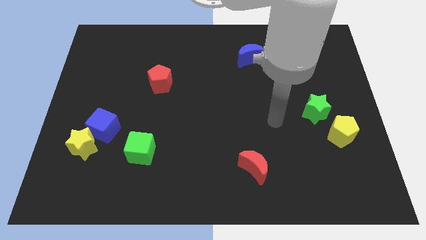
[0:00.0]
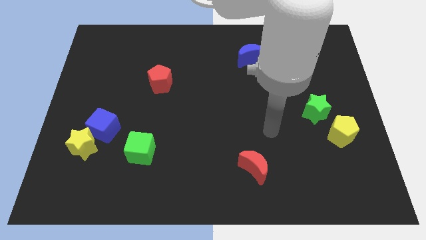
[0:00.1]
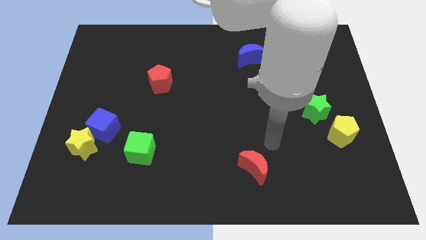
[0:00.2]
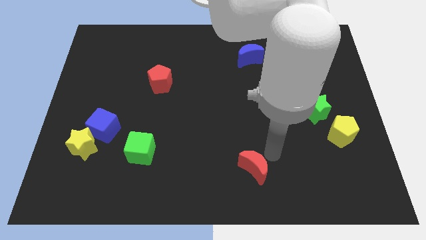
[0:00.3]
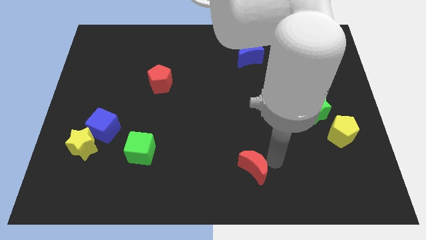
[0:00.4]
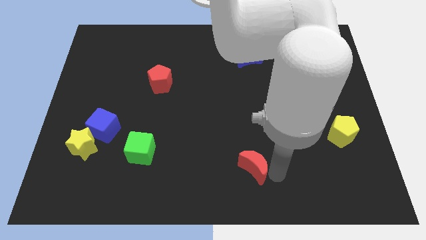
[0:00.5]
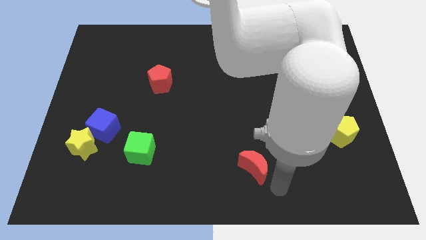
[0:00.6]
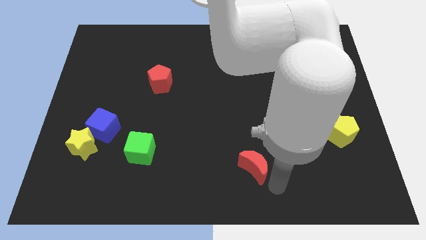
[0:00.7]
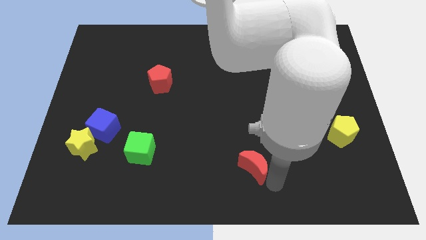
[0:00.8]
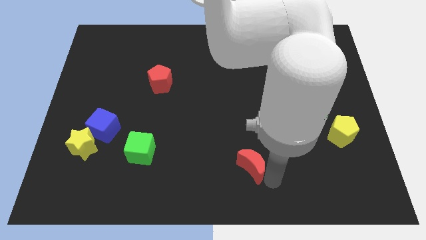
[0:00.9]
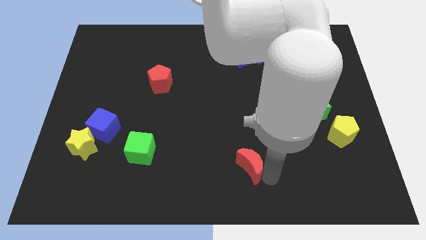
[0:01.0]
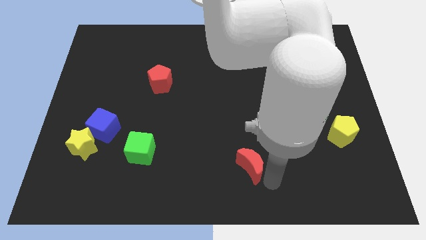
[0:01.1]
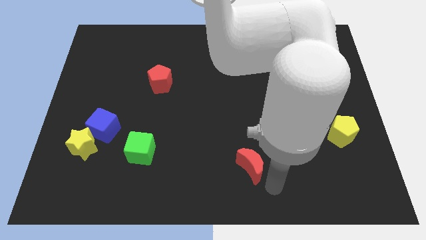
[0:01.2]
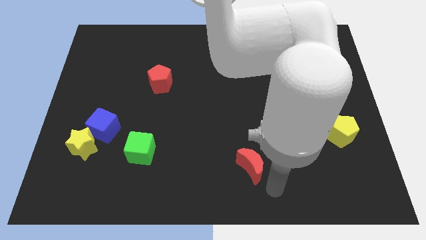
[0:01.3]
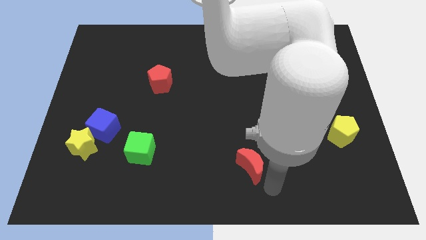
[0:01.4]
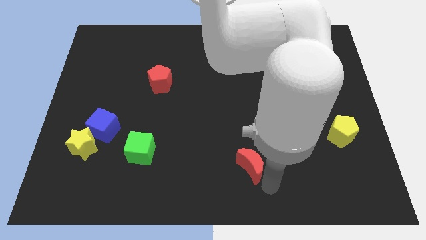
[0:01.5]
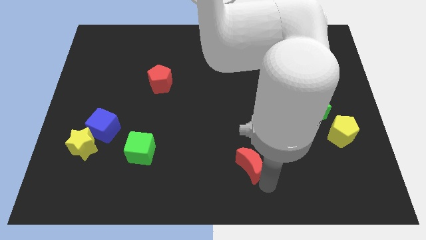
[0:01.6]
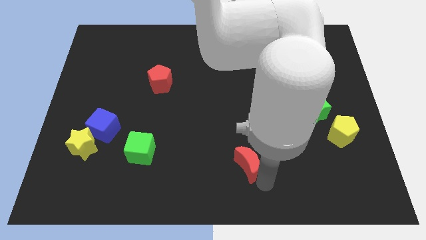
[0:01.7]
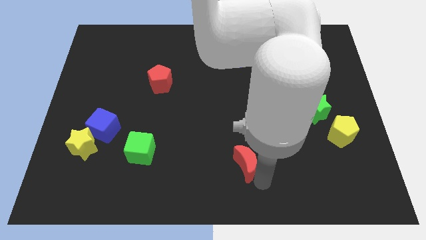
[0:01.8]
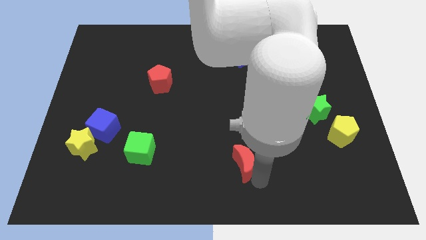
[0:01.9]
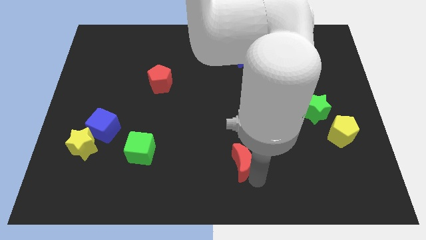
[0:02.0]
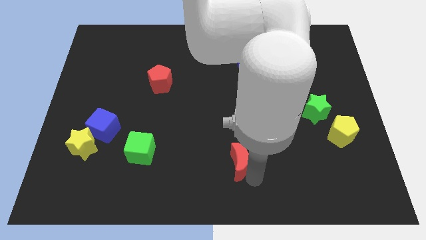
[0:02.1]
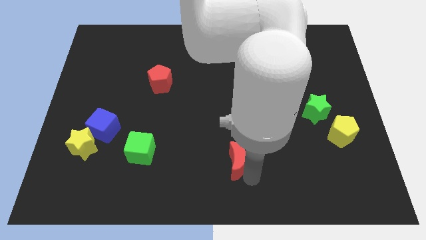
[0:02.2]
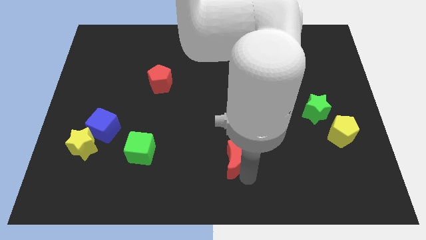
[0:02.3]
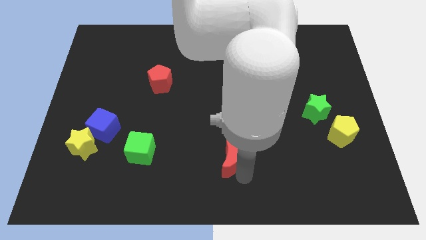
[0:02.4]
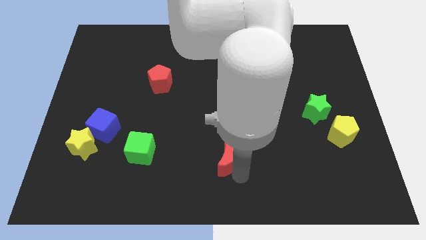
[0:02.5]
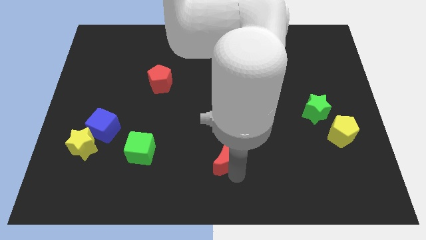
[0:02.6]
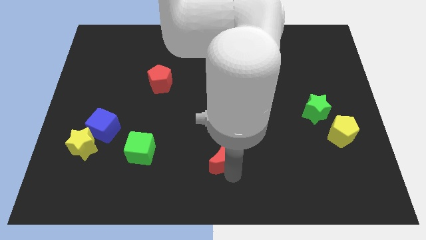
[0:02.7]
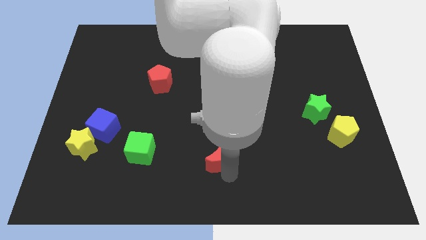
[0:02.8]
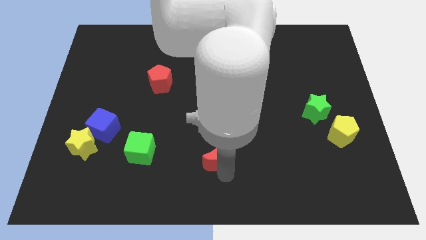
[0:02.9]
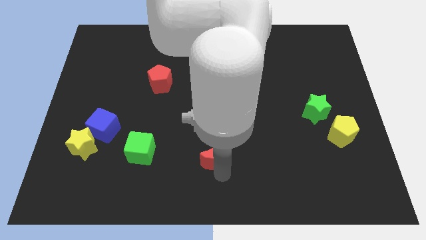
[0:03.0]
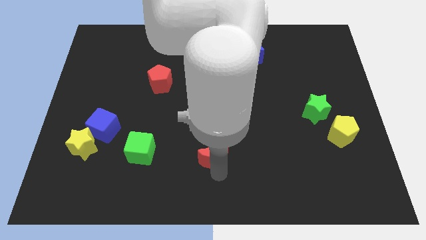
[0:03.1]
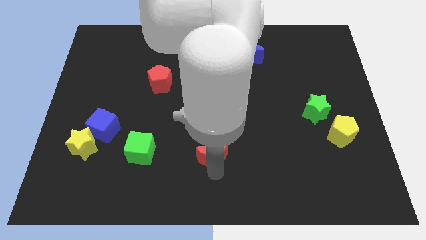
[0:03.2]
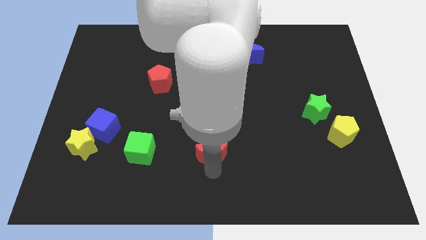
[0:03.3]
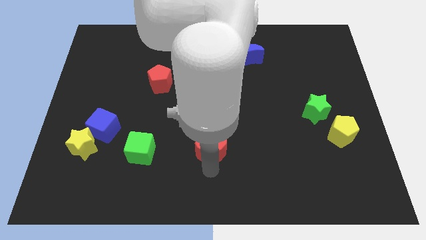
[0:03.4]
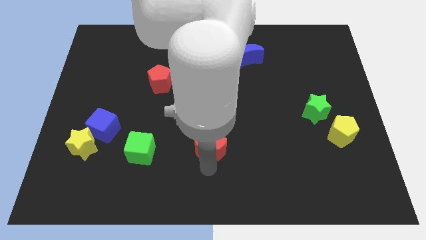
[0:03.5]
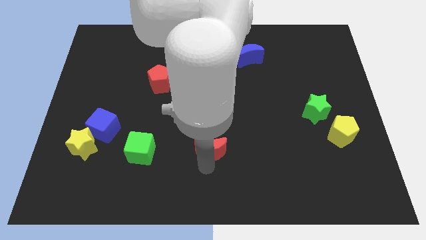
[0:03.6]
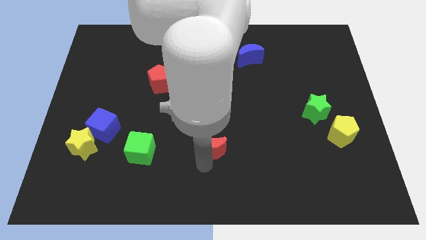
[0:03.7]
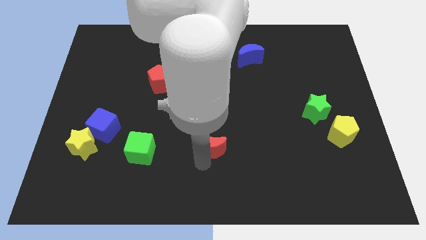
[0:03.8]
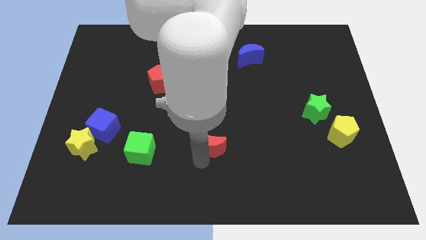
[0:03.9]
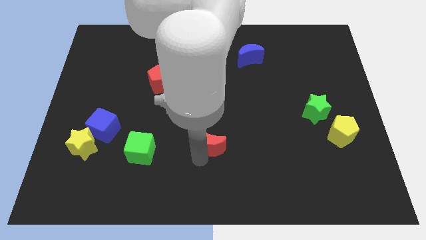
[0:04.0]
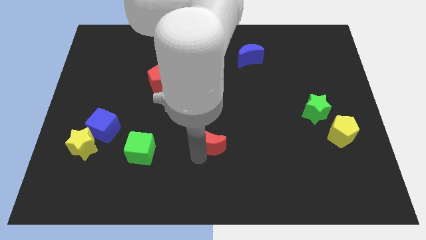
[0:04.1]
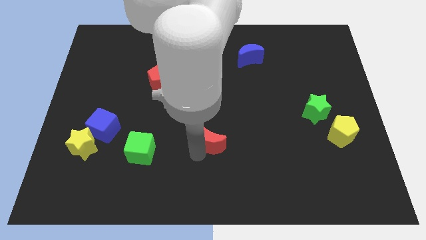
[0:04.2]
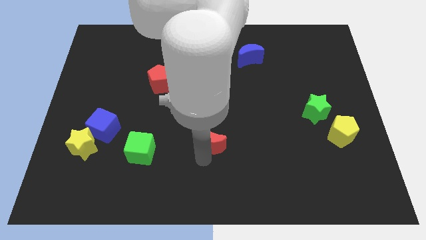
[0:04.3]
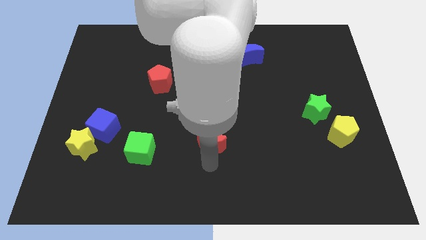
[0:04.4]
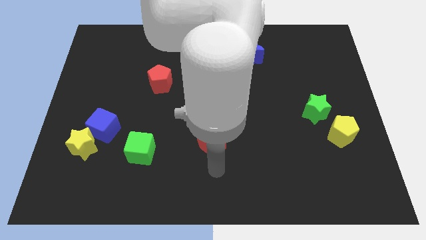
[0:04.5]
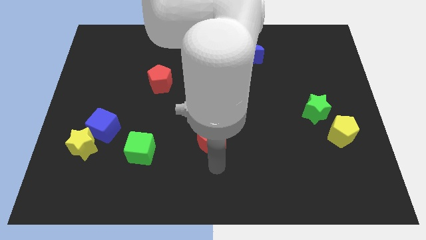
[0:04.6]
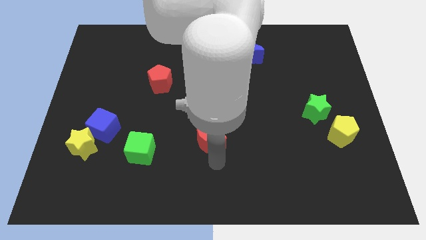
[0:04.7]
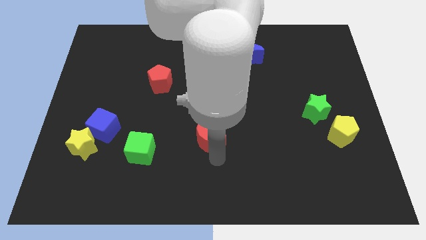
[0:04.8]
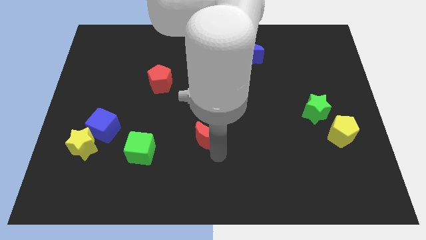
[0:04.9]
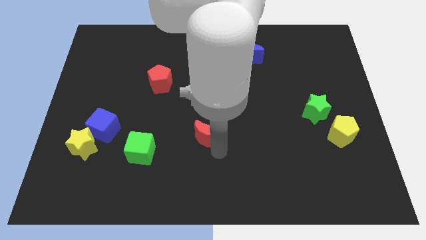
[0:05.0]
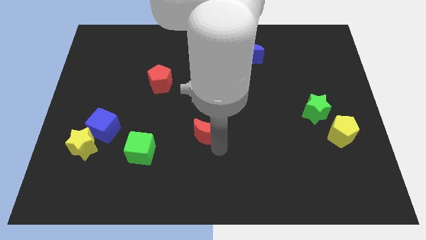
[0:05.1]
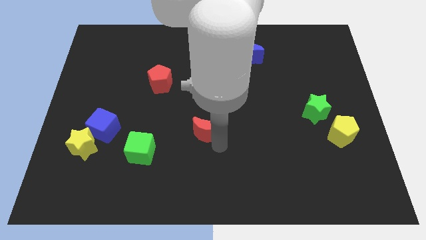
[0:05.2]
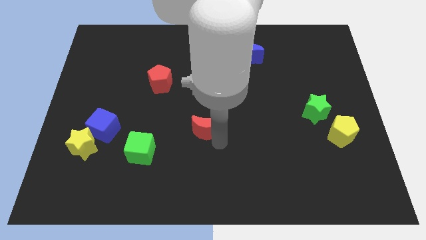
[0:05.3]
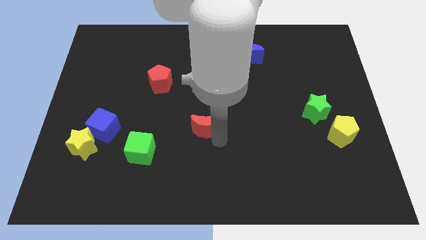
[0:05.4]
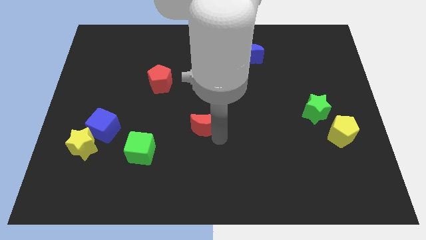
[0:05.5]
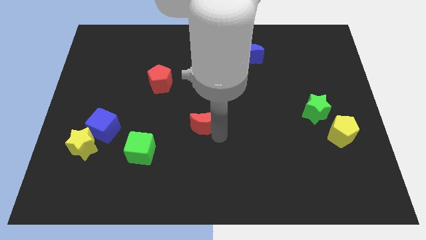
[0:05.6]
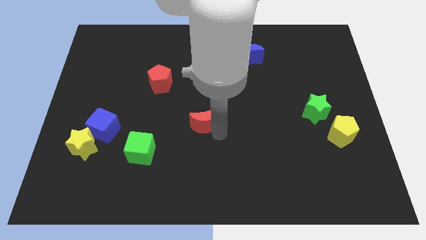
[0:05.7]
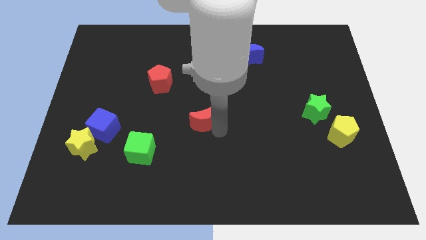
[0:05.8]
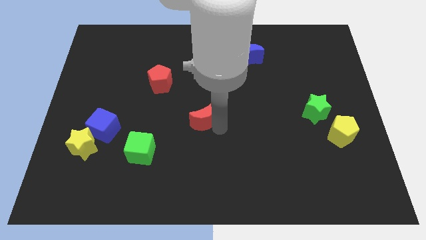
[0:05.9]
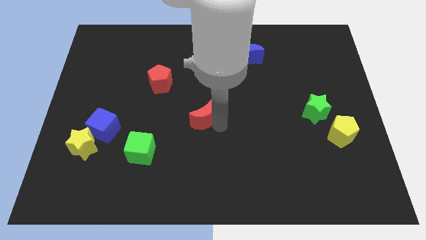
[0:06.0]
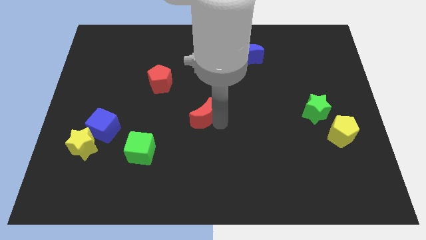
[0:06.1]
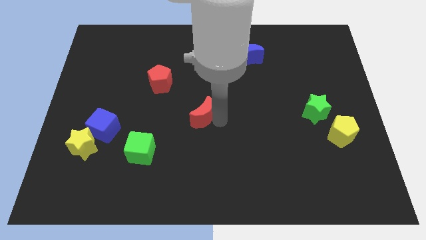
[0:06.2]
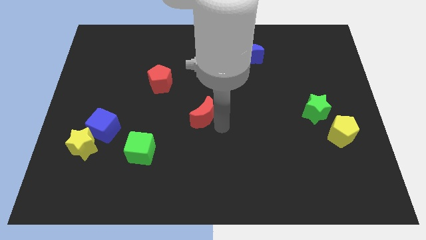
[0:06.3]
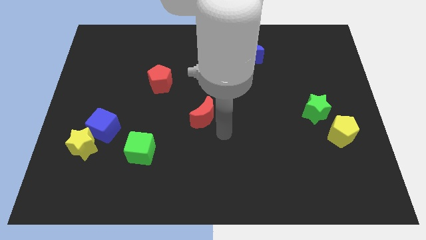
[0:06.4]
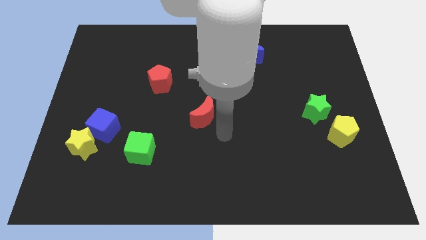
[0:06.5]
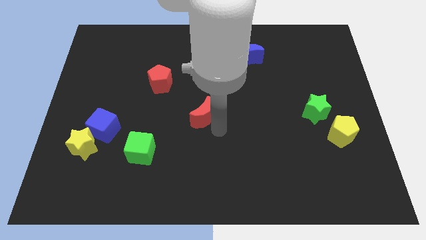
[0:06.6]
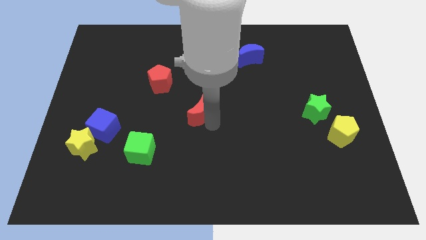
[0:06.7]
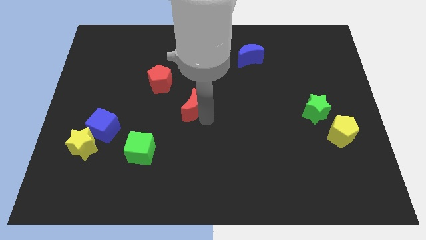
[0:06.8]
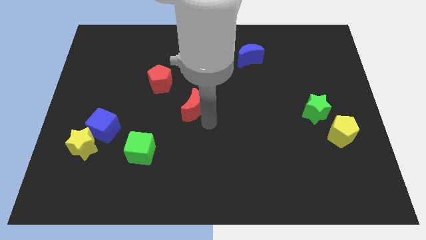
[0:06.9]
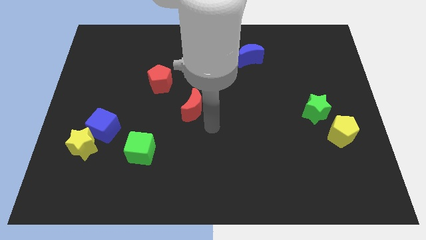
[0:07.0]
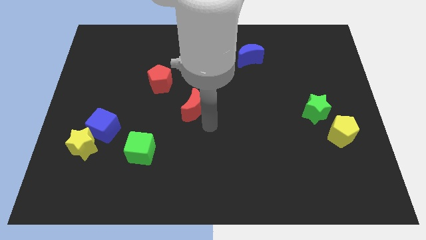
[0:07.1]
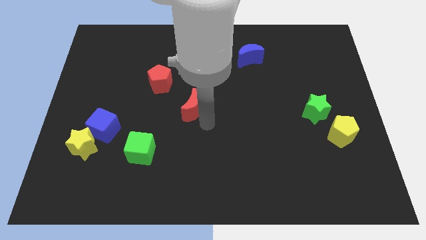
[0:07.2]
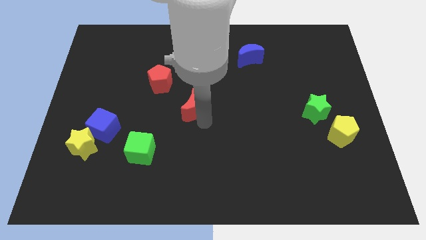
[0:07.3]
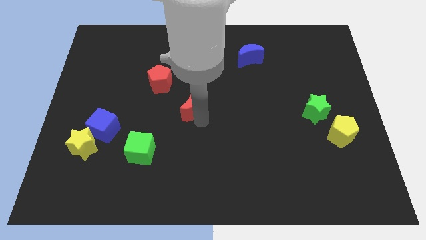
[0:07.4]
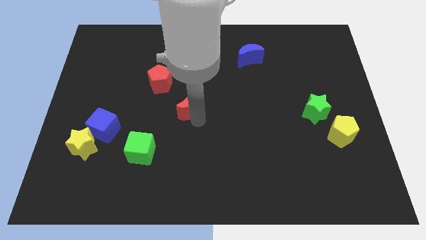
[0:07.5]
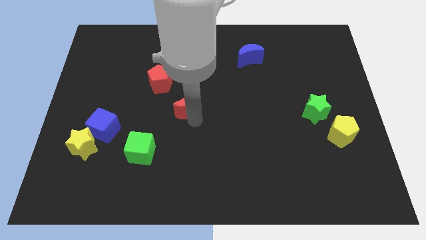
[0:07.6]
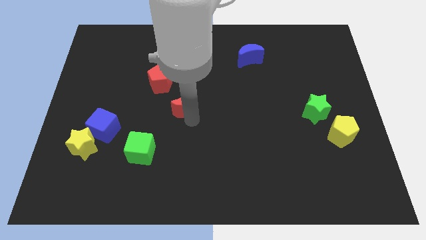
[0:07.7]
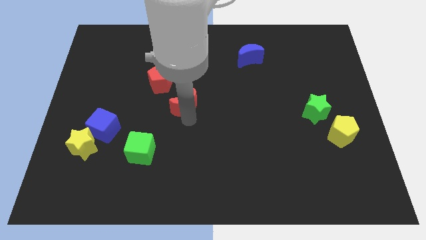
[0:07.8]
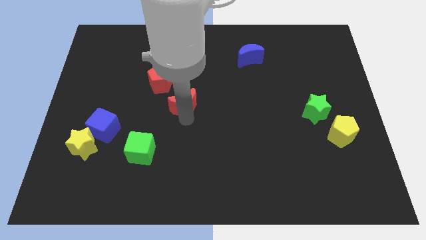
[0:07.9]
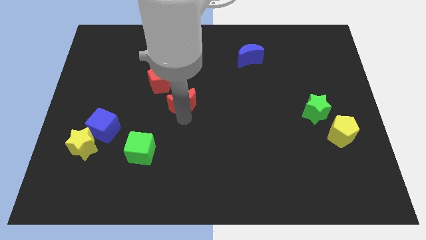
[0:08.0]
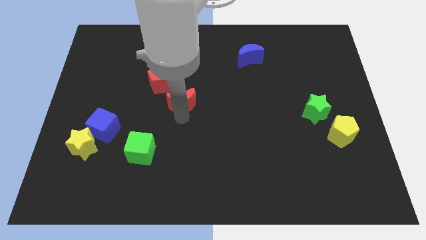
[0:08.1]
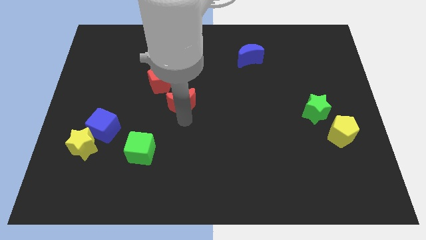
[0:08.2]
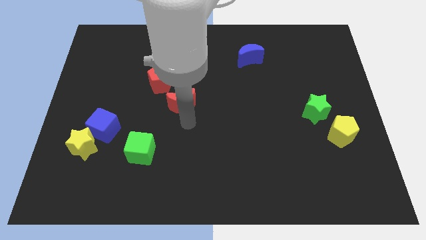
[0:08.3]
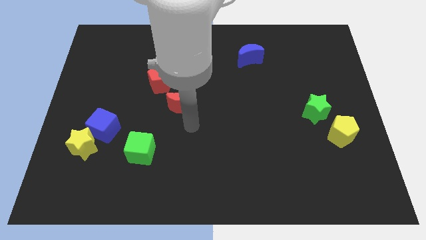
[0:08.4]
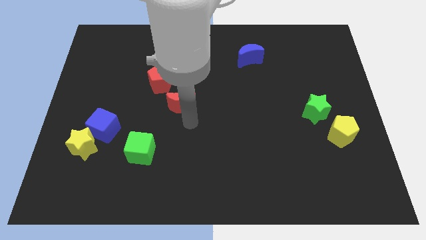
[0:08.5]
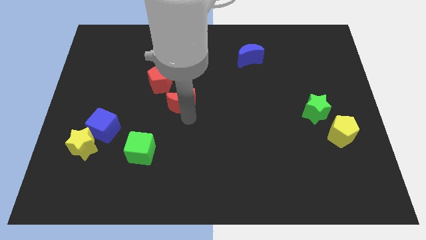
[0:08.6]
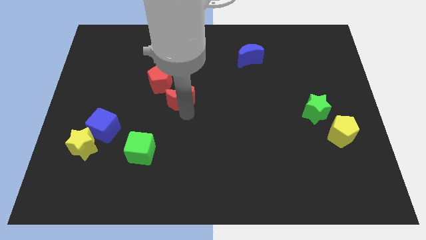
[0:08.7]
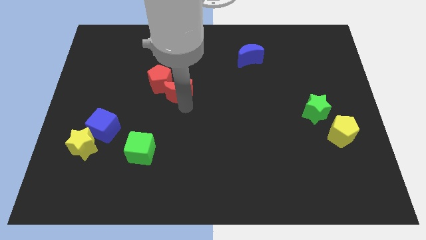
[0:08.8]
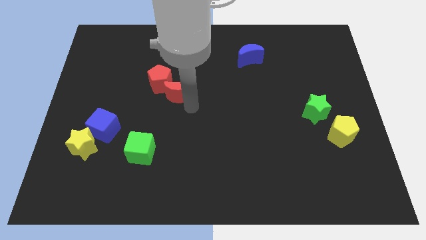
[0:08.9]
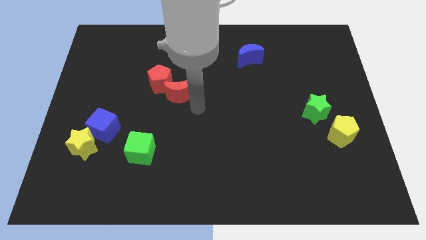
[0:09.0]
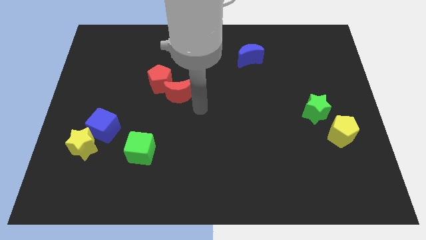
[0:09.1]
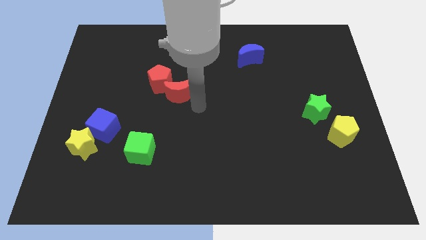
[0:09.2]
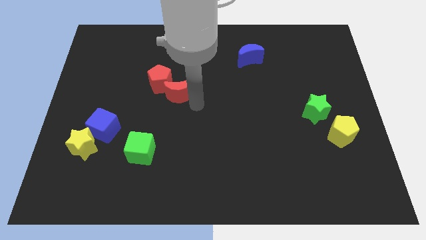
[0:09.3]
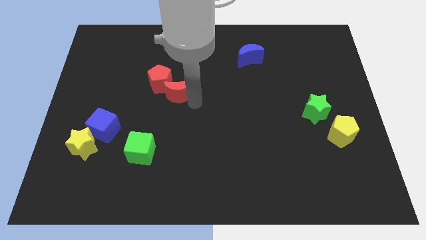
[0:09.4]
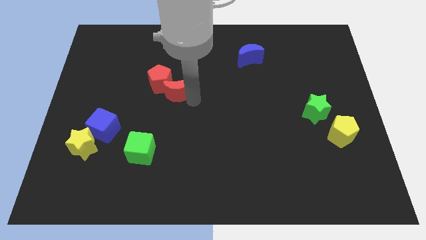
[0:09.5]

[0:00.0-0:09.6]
put the red moon next to the red pentagon
